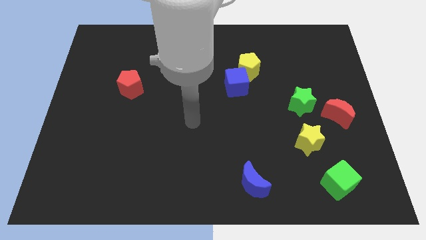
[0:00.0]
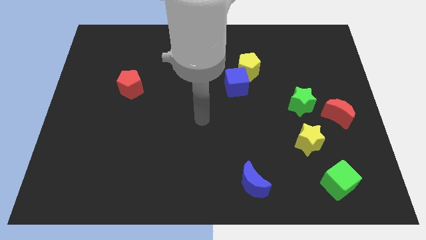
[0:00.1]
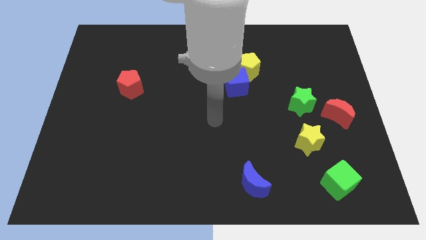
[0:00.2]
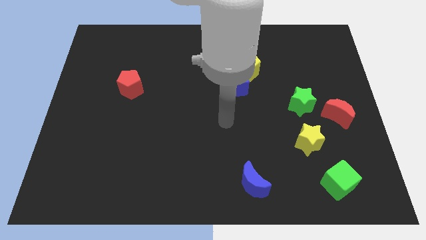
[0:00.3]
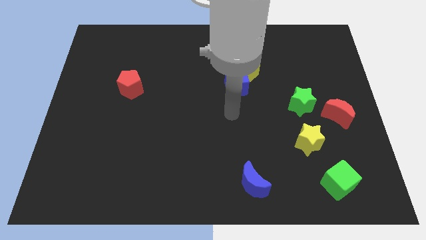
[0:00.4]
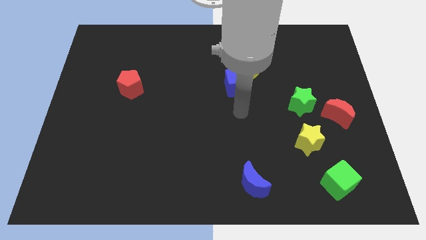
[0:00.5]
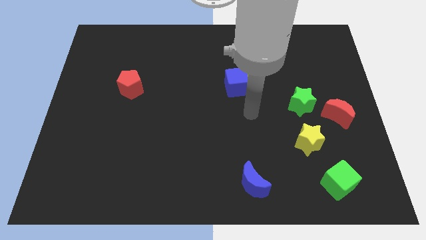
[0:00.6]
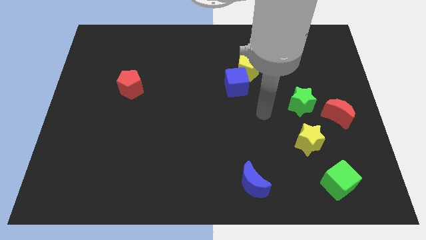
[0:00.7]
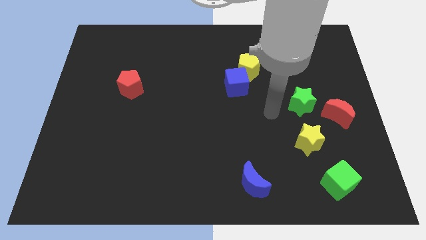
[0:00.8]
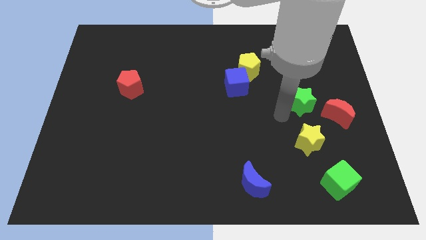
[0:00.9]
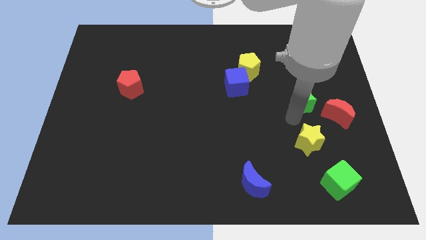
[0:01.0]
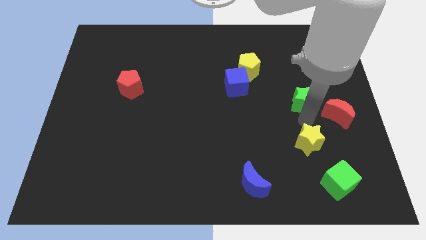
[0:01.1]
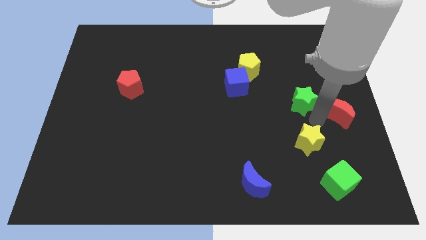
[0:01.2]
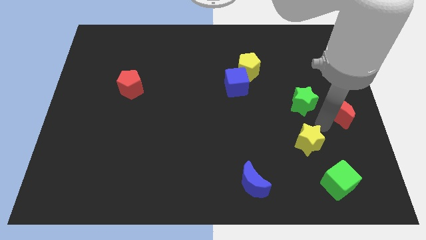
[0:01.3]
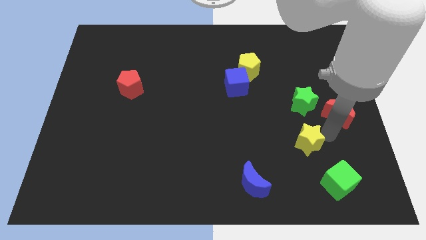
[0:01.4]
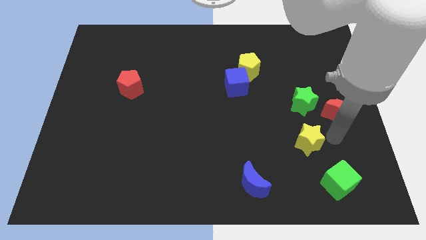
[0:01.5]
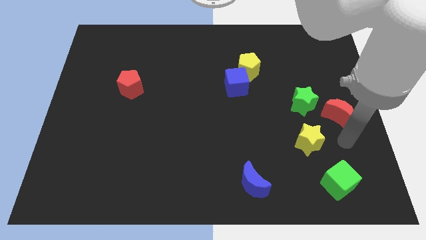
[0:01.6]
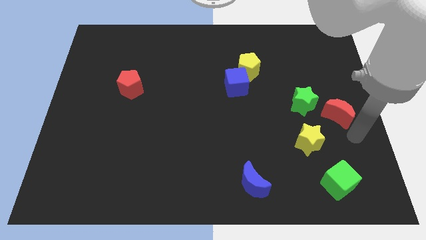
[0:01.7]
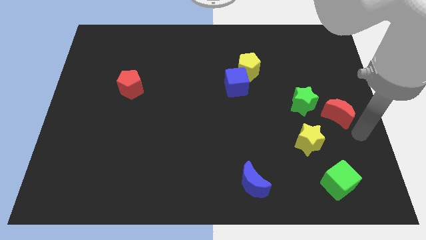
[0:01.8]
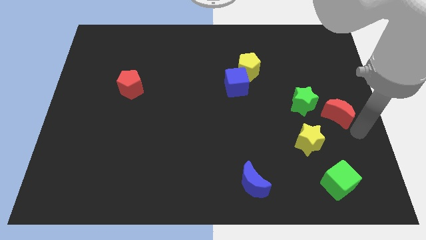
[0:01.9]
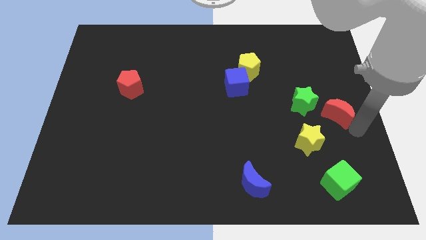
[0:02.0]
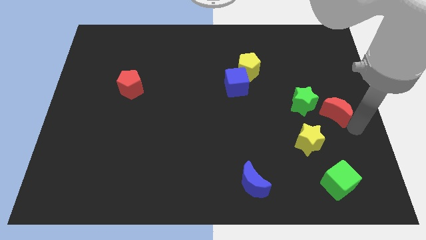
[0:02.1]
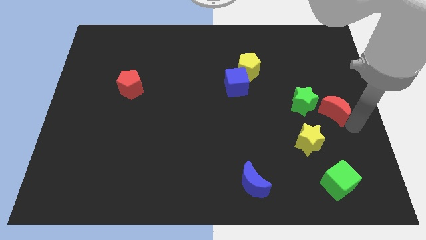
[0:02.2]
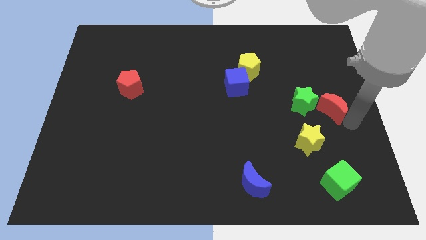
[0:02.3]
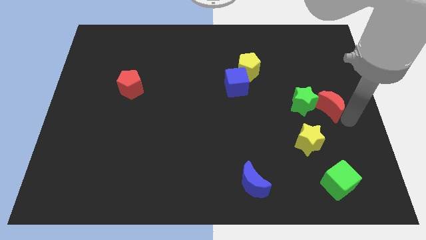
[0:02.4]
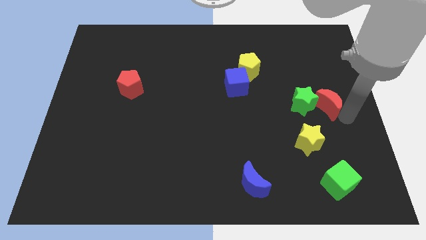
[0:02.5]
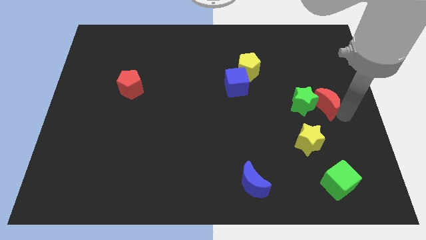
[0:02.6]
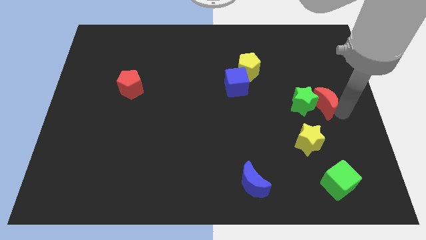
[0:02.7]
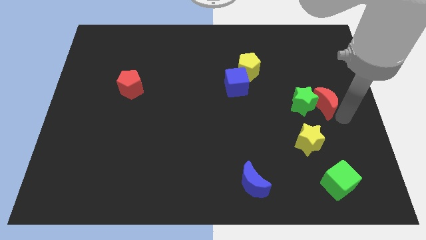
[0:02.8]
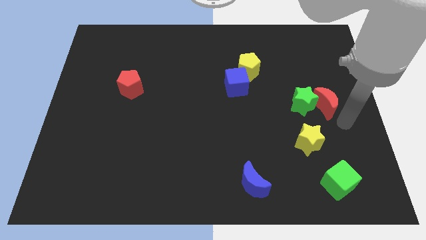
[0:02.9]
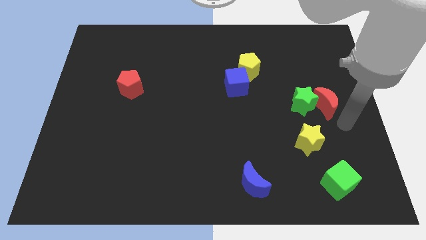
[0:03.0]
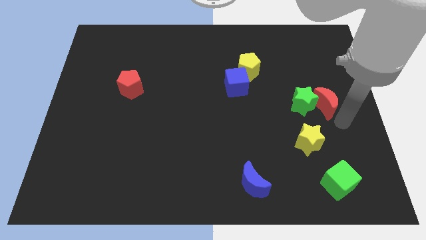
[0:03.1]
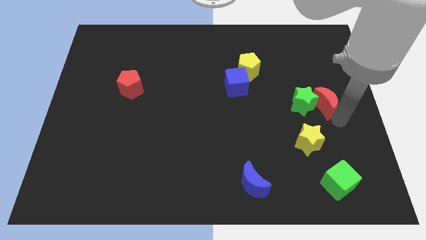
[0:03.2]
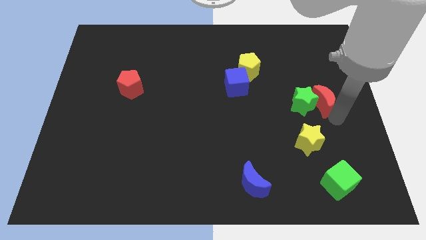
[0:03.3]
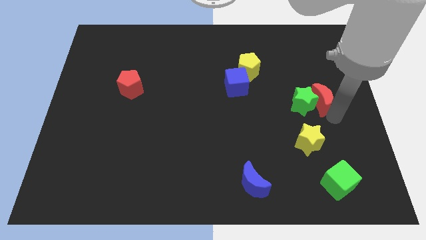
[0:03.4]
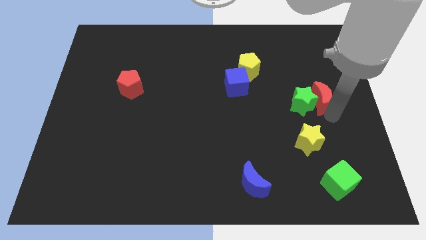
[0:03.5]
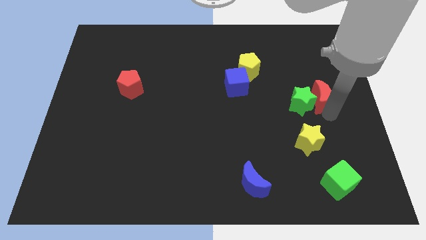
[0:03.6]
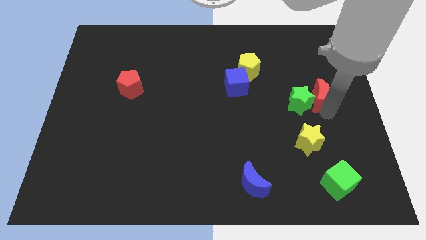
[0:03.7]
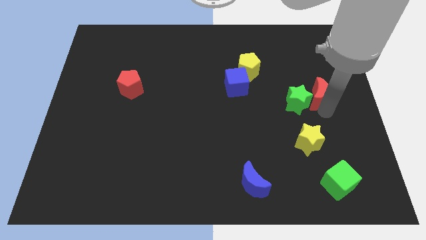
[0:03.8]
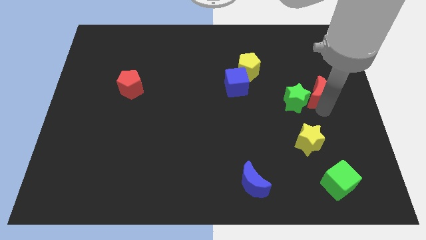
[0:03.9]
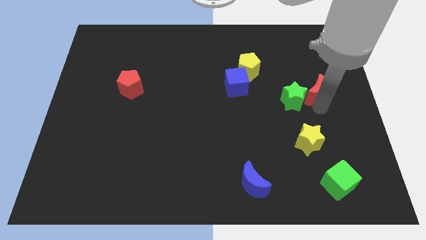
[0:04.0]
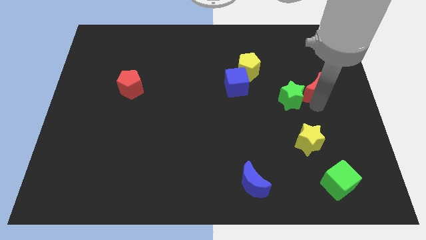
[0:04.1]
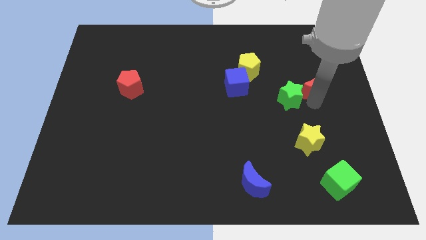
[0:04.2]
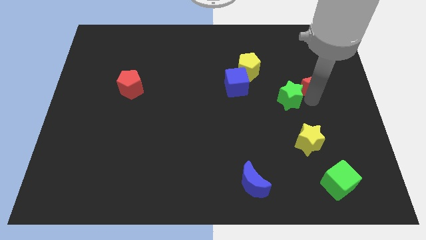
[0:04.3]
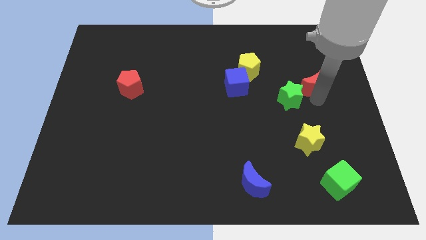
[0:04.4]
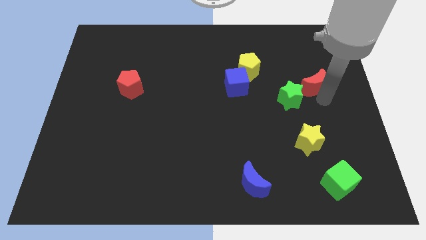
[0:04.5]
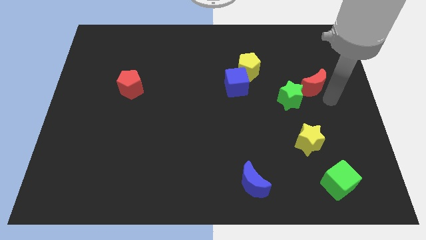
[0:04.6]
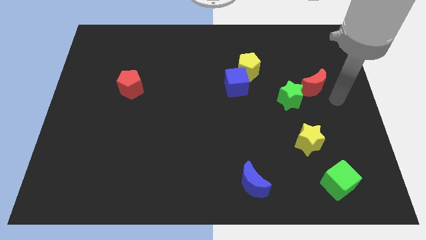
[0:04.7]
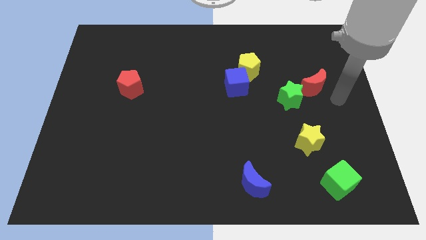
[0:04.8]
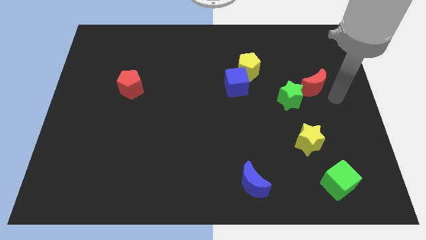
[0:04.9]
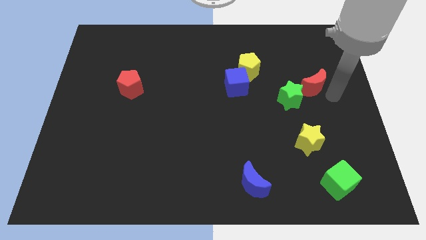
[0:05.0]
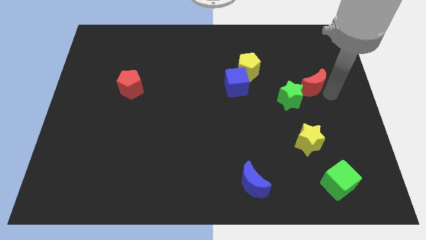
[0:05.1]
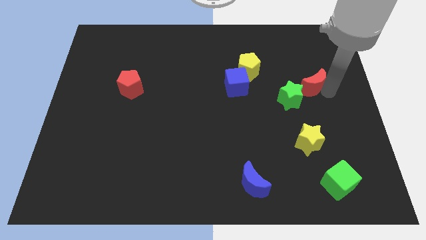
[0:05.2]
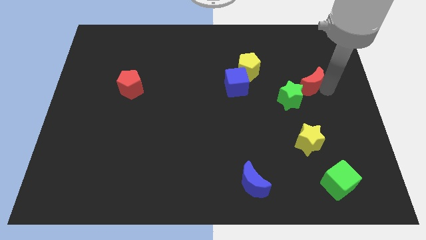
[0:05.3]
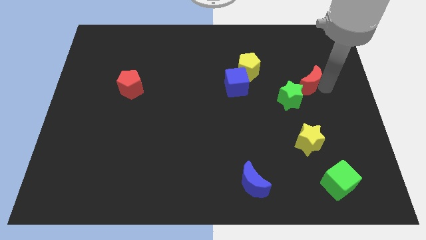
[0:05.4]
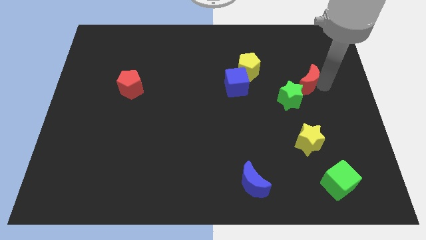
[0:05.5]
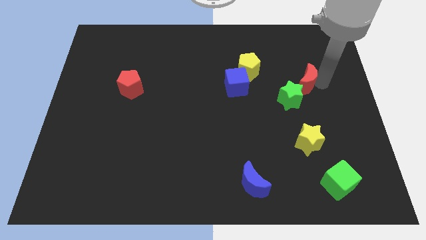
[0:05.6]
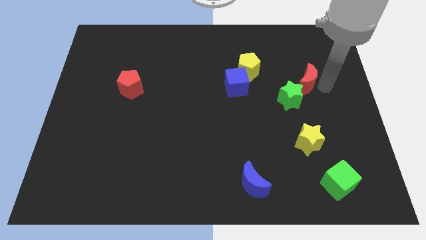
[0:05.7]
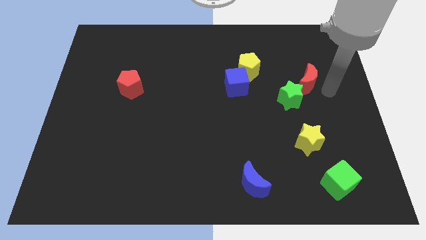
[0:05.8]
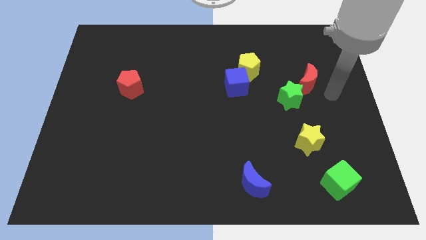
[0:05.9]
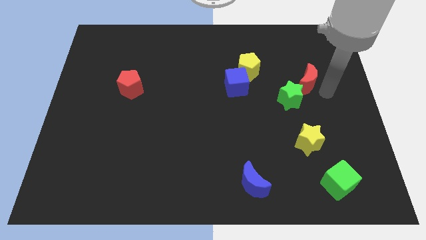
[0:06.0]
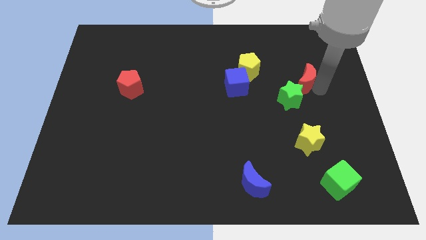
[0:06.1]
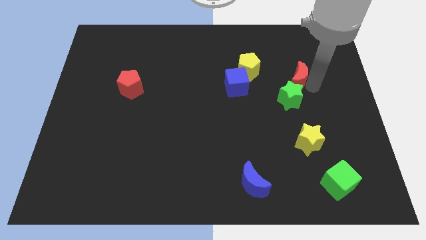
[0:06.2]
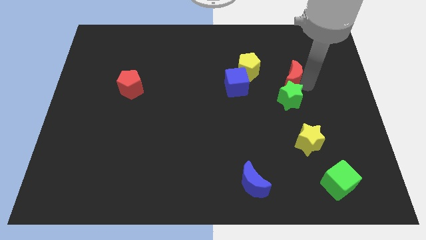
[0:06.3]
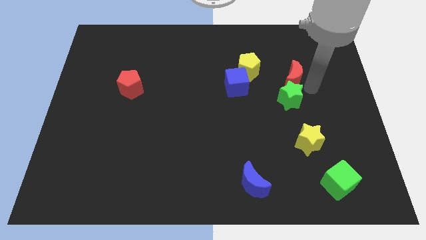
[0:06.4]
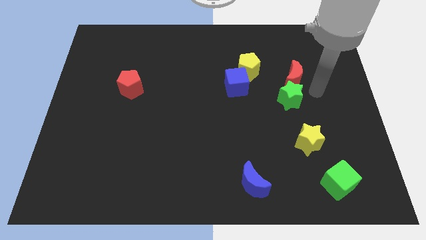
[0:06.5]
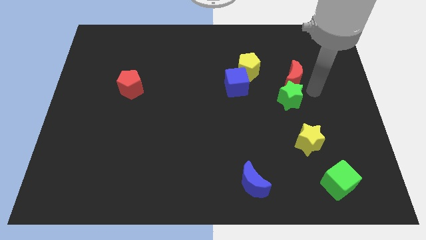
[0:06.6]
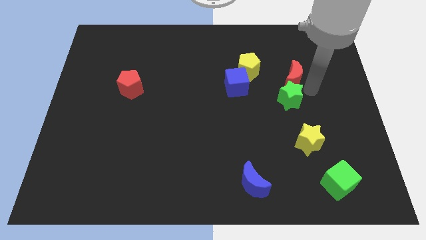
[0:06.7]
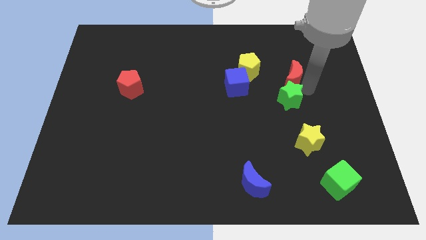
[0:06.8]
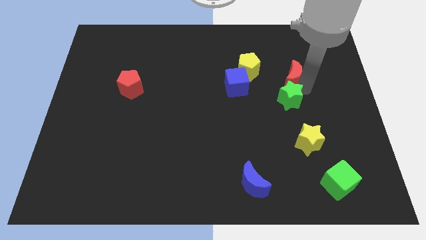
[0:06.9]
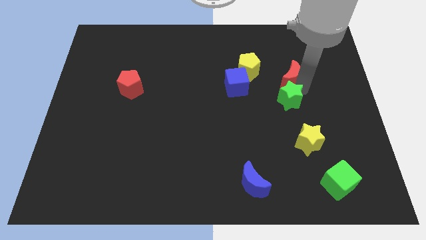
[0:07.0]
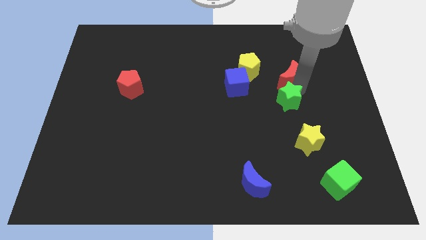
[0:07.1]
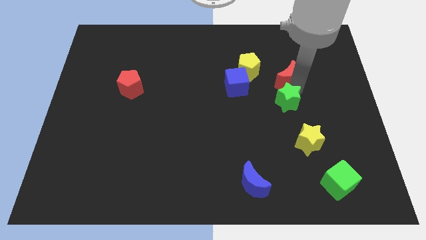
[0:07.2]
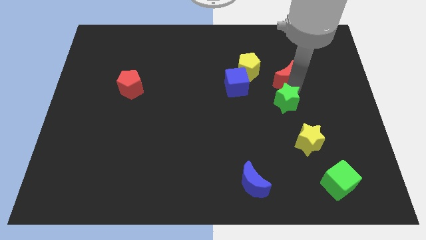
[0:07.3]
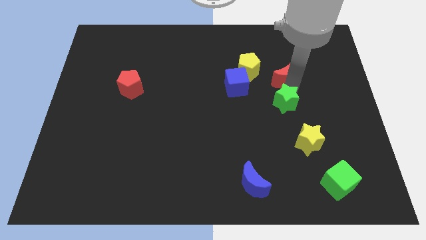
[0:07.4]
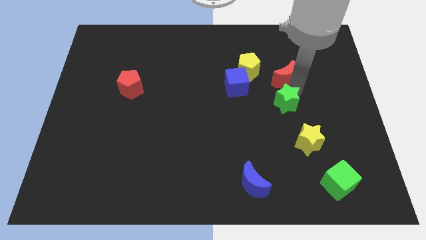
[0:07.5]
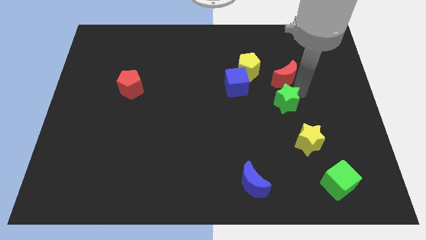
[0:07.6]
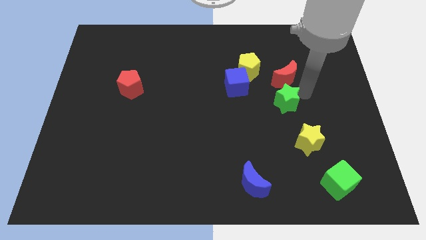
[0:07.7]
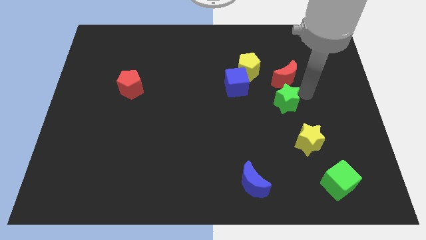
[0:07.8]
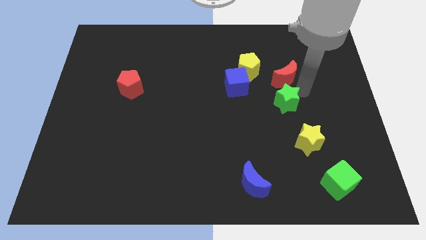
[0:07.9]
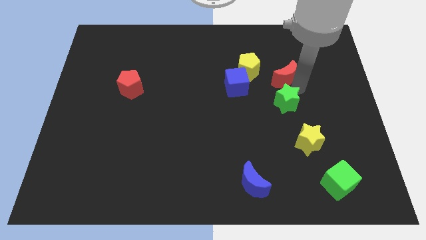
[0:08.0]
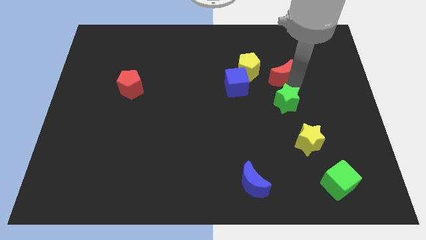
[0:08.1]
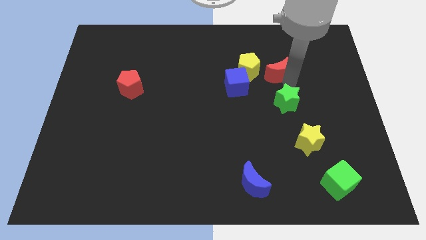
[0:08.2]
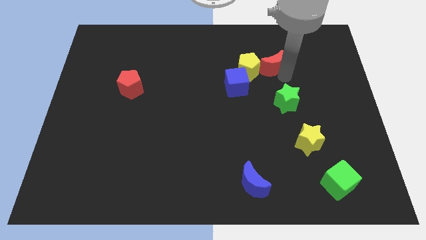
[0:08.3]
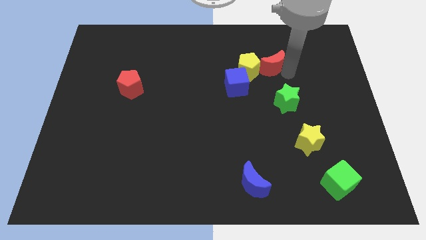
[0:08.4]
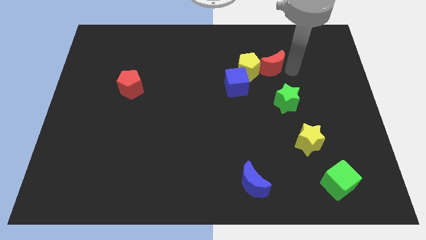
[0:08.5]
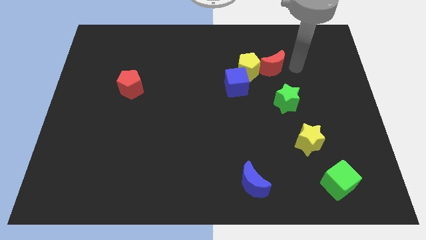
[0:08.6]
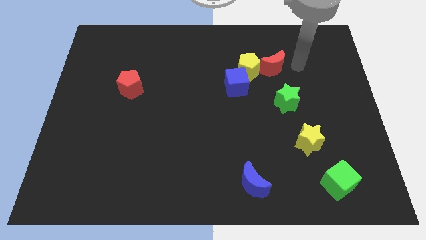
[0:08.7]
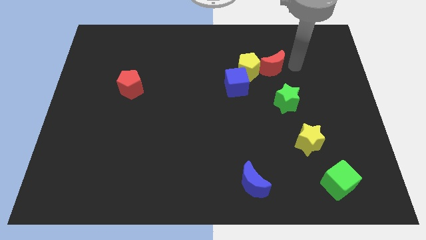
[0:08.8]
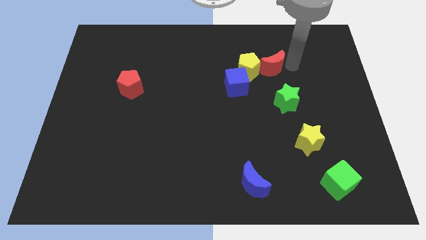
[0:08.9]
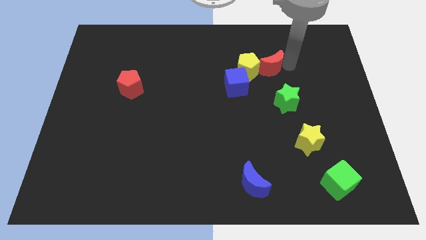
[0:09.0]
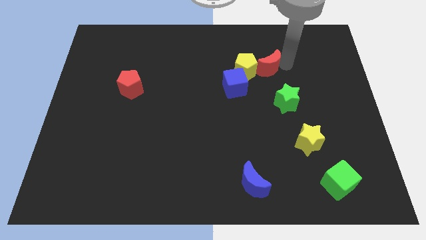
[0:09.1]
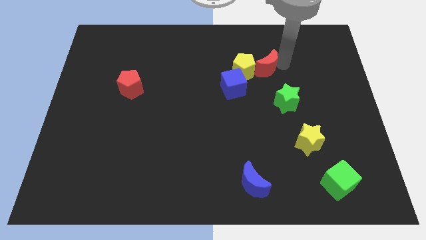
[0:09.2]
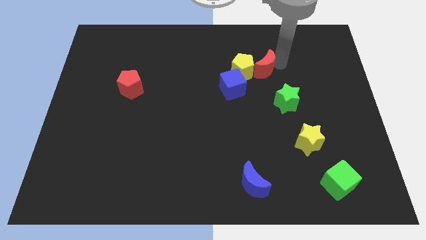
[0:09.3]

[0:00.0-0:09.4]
push the red moon towards the yellow pentagon
